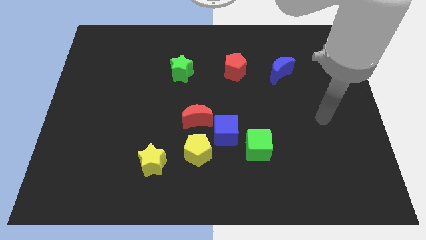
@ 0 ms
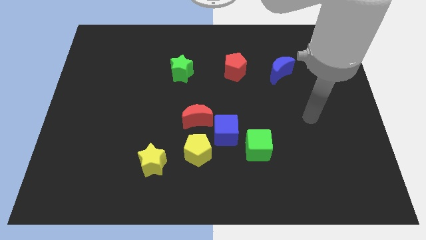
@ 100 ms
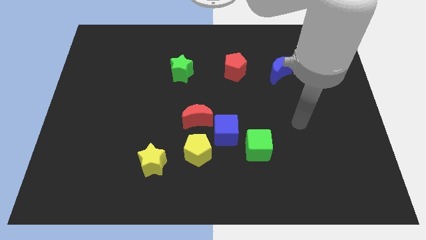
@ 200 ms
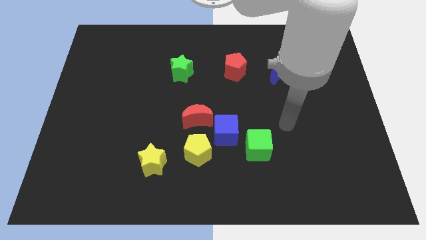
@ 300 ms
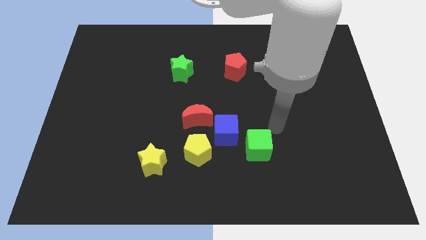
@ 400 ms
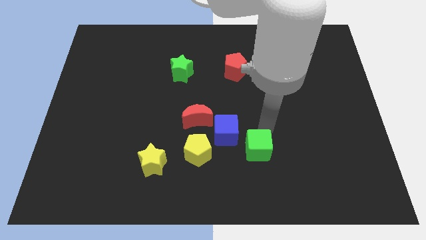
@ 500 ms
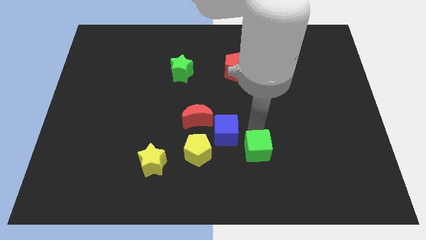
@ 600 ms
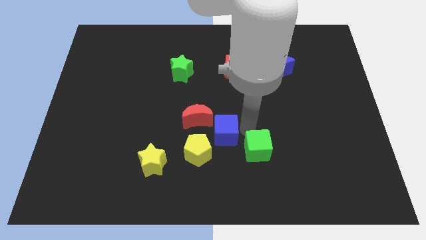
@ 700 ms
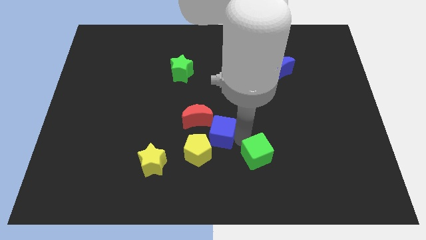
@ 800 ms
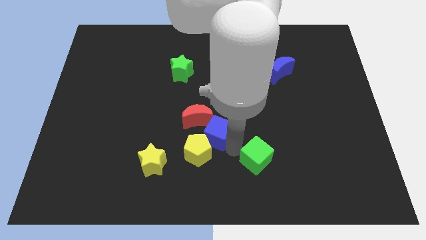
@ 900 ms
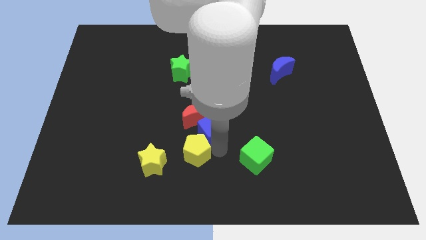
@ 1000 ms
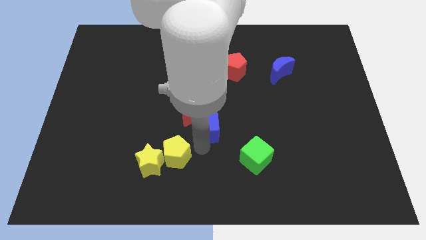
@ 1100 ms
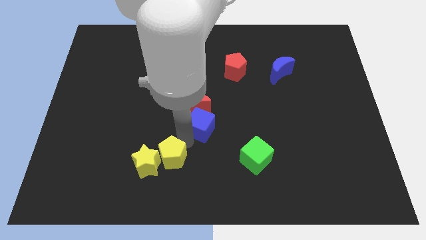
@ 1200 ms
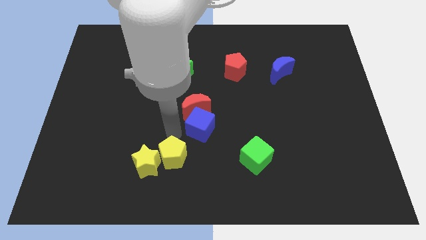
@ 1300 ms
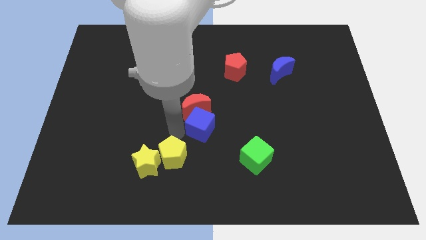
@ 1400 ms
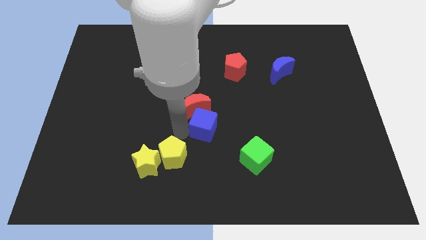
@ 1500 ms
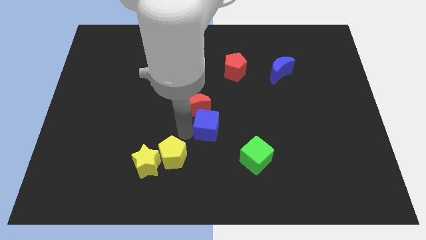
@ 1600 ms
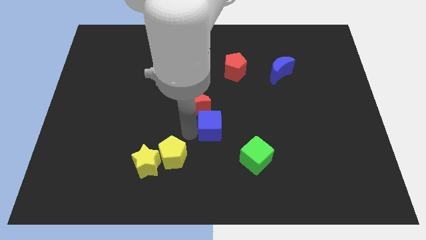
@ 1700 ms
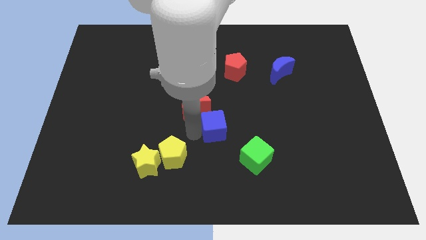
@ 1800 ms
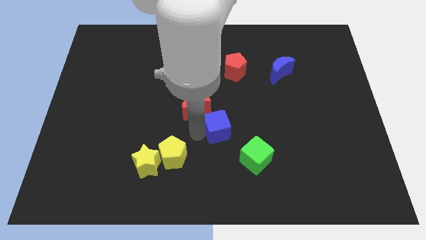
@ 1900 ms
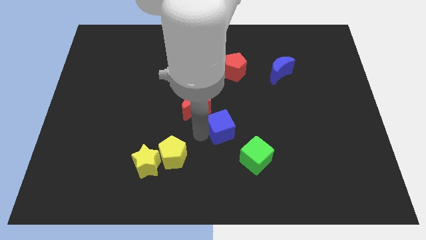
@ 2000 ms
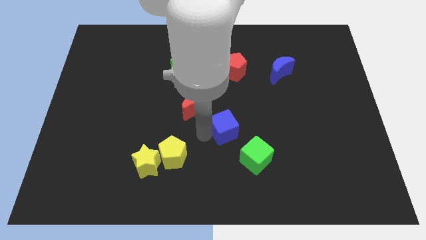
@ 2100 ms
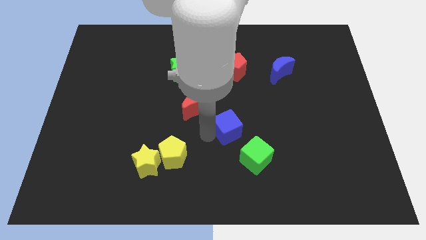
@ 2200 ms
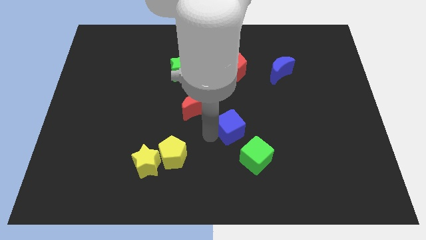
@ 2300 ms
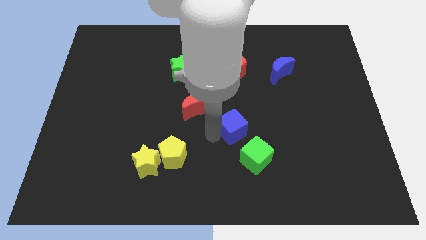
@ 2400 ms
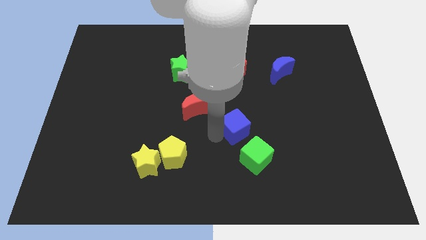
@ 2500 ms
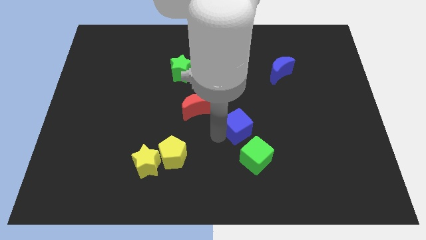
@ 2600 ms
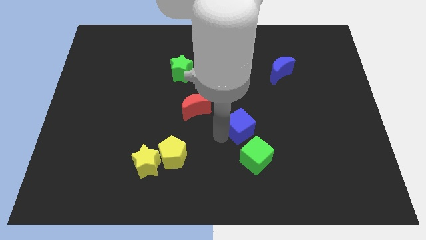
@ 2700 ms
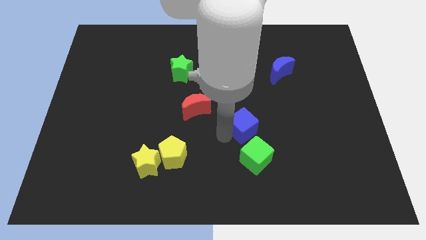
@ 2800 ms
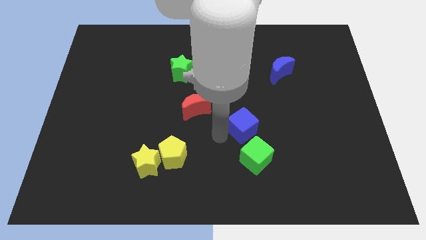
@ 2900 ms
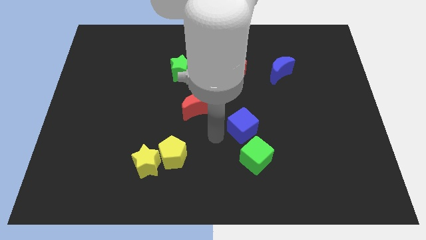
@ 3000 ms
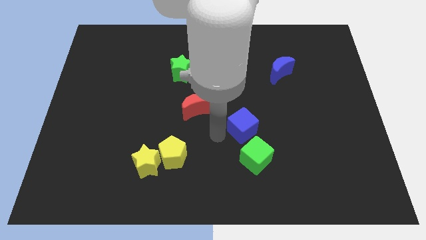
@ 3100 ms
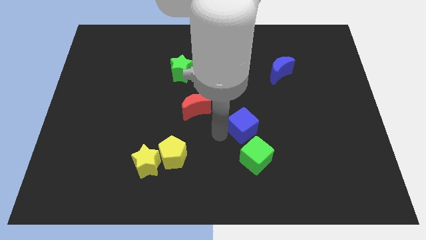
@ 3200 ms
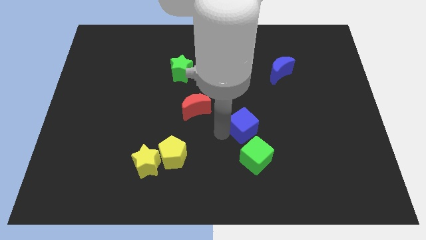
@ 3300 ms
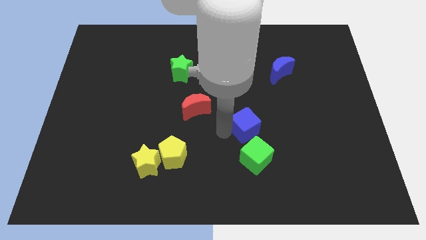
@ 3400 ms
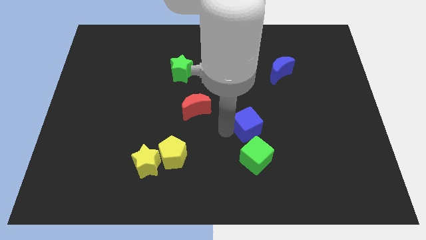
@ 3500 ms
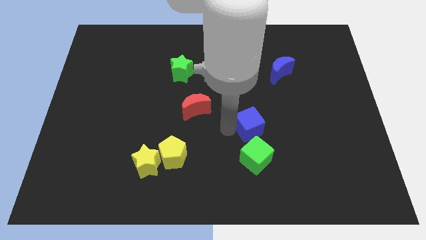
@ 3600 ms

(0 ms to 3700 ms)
pull the blue cube apart from the group

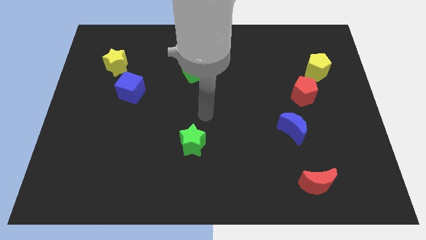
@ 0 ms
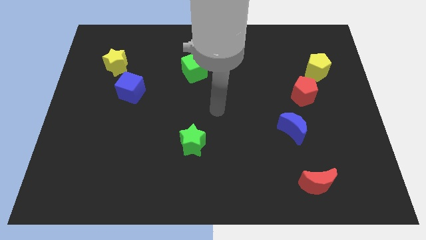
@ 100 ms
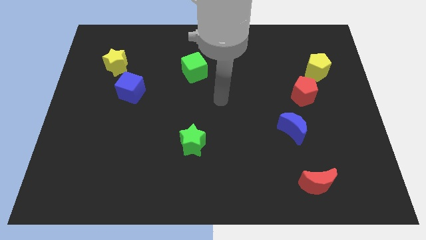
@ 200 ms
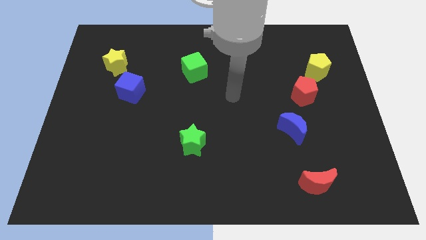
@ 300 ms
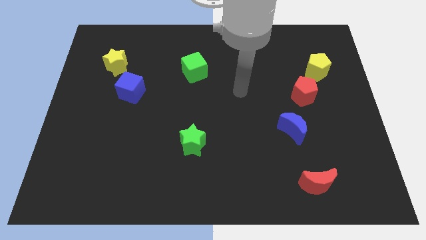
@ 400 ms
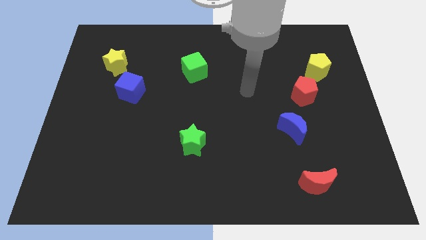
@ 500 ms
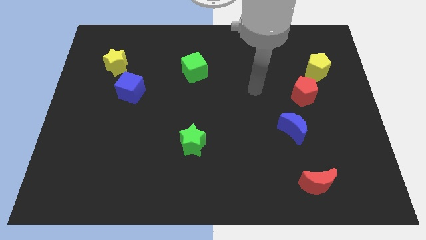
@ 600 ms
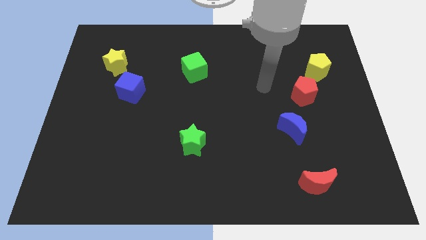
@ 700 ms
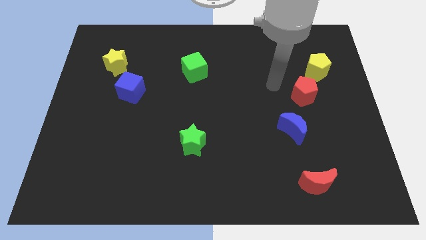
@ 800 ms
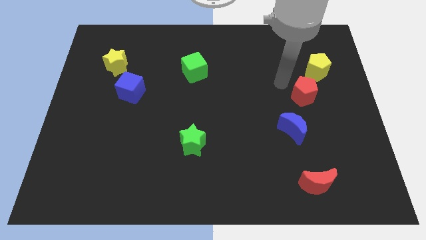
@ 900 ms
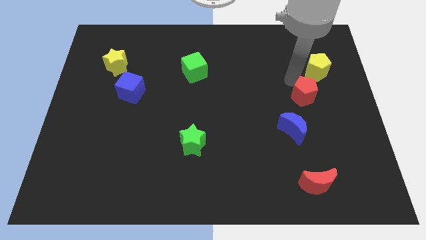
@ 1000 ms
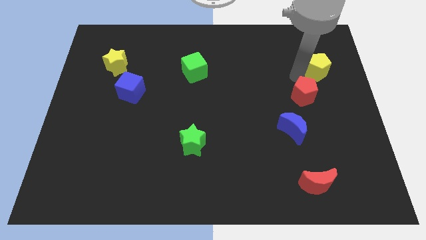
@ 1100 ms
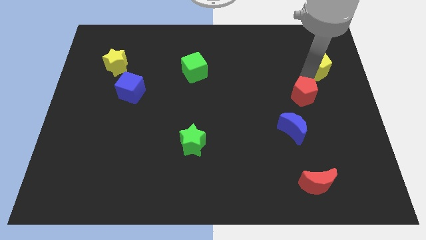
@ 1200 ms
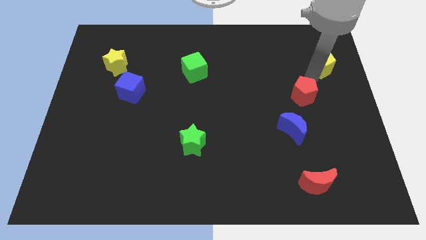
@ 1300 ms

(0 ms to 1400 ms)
separate the red pentagon from the yellow pentagon

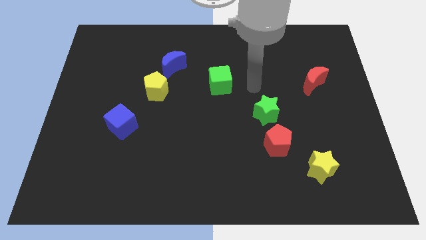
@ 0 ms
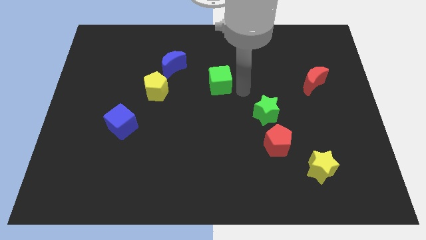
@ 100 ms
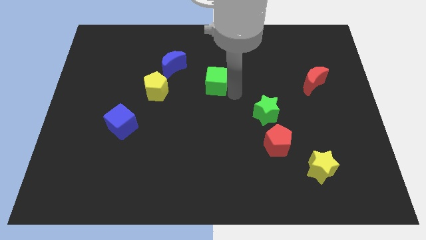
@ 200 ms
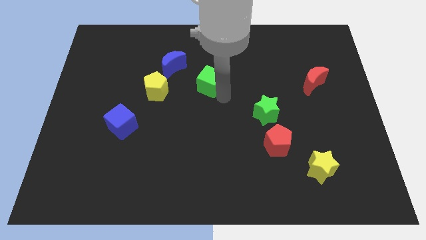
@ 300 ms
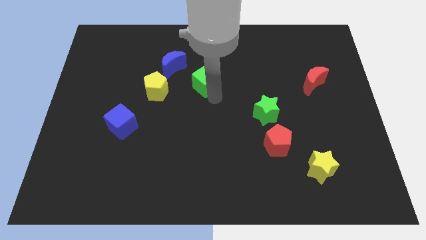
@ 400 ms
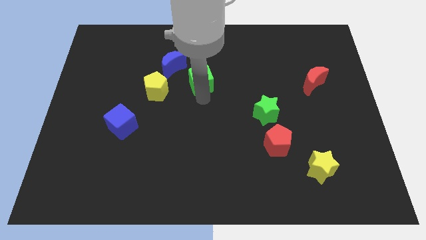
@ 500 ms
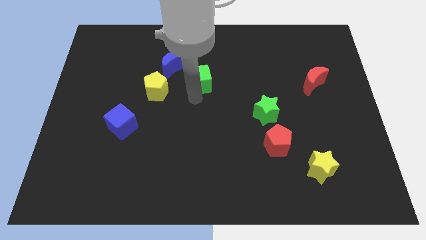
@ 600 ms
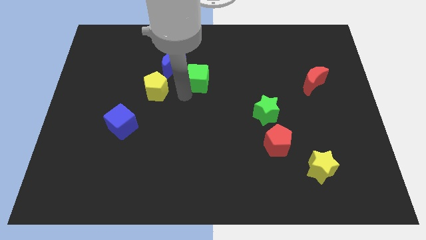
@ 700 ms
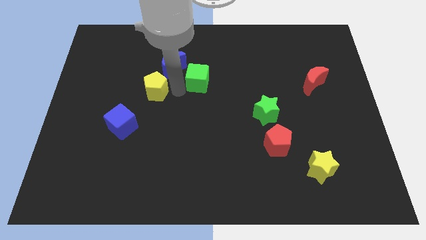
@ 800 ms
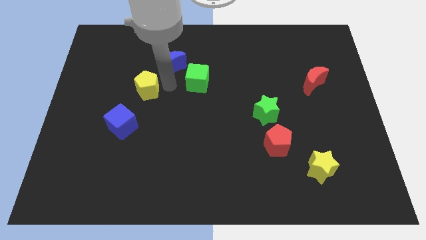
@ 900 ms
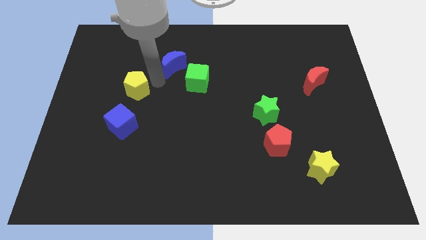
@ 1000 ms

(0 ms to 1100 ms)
move the blue moon away from the yellow pentagon

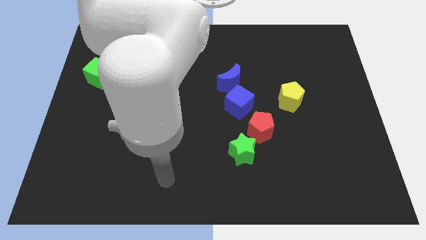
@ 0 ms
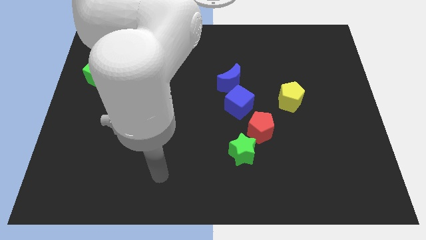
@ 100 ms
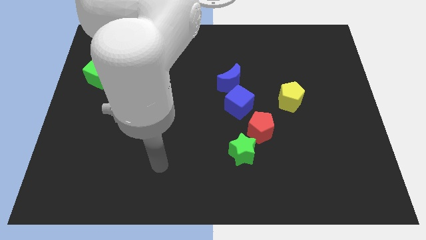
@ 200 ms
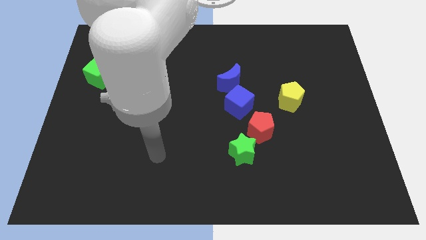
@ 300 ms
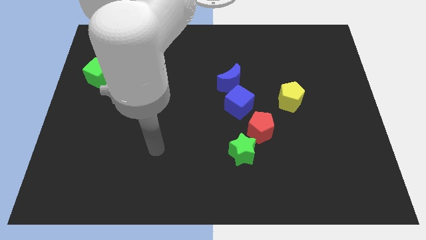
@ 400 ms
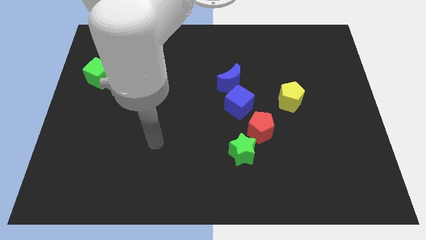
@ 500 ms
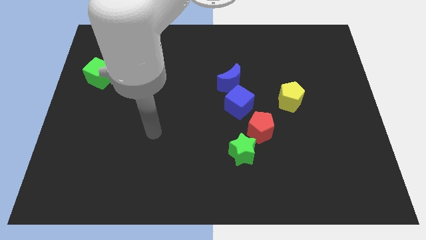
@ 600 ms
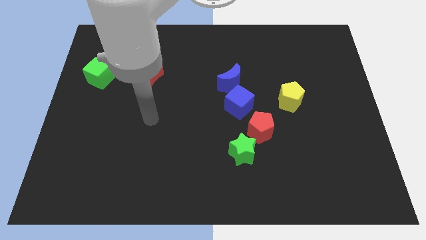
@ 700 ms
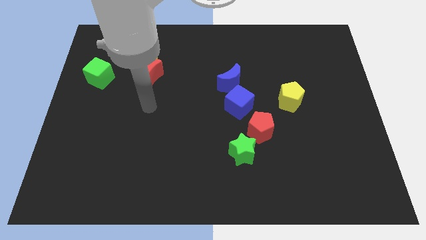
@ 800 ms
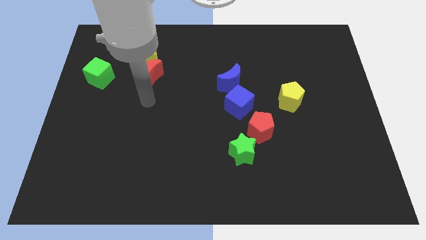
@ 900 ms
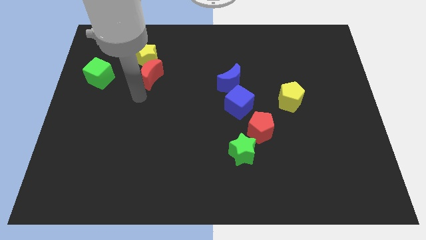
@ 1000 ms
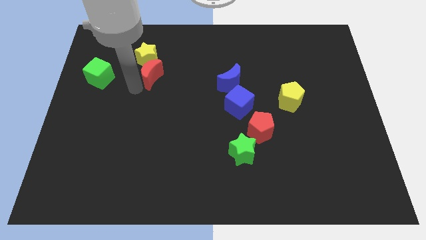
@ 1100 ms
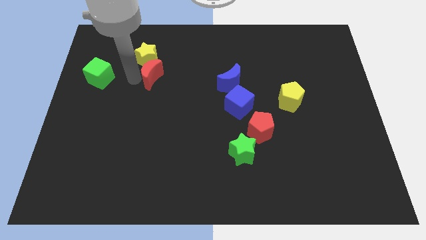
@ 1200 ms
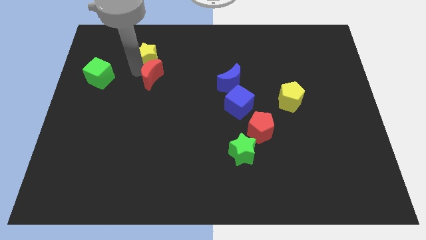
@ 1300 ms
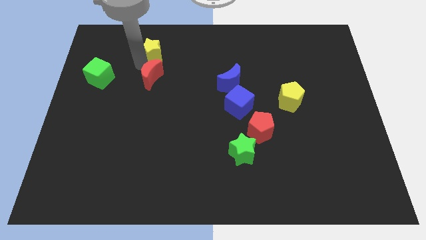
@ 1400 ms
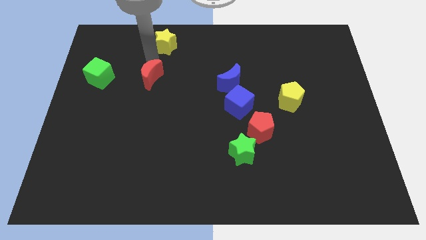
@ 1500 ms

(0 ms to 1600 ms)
pull the red moon apart from the yellow star

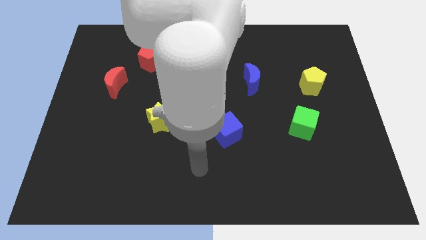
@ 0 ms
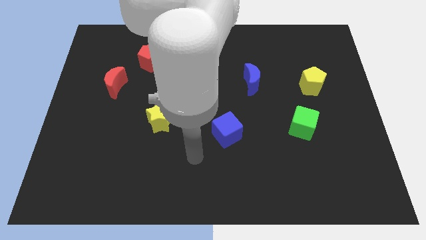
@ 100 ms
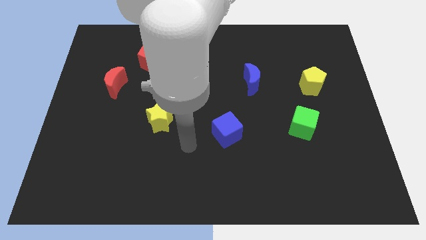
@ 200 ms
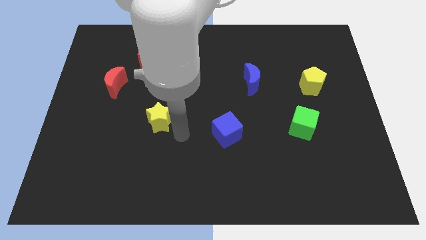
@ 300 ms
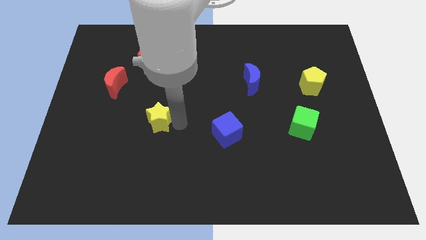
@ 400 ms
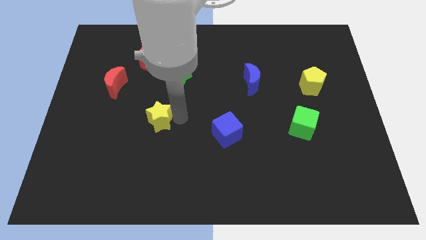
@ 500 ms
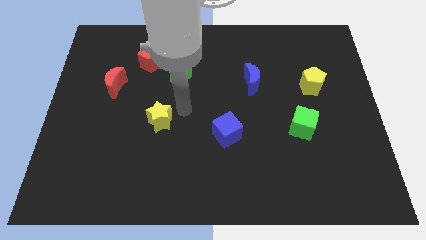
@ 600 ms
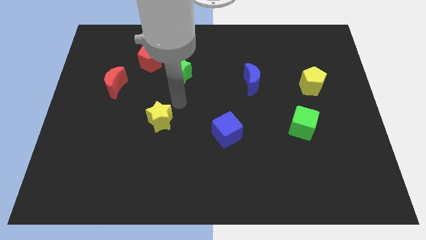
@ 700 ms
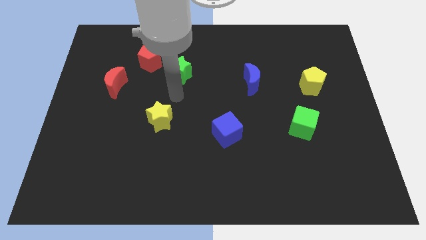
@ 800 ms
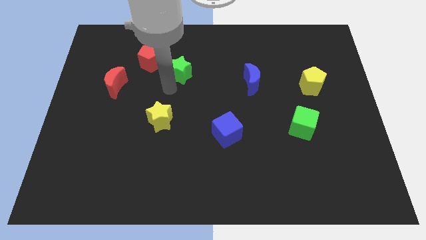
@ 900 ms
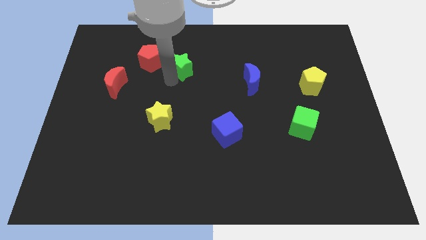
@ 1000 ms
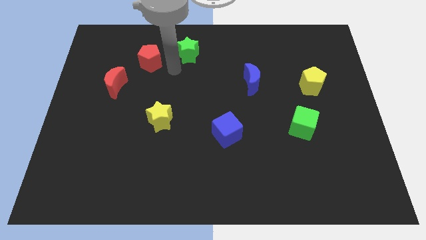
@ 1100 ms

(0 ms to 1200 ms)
pull the red pentagon apart from the green star

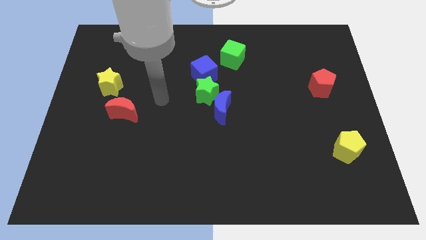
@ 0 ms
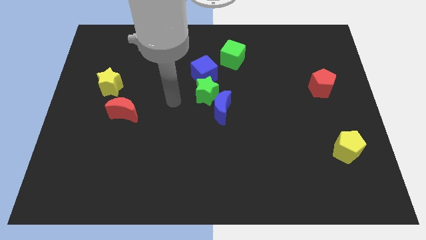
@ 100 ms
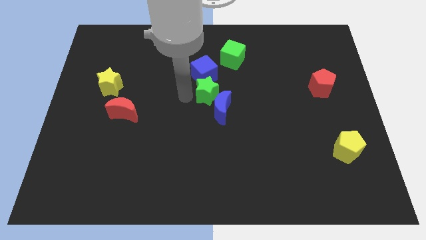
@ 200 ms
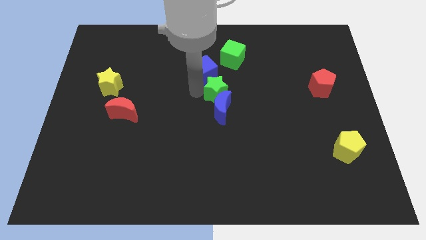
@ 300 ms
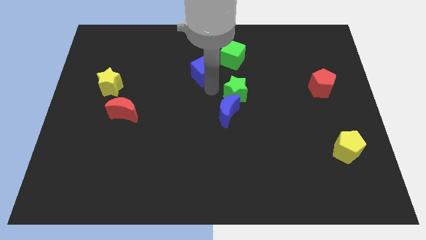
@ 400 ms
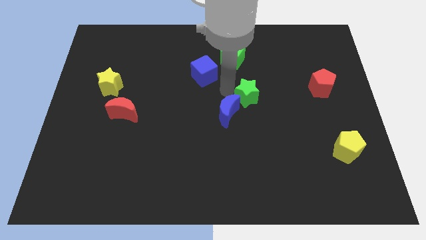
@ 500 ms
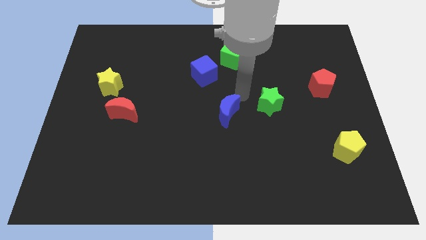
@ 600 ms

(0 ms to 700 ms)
separate the blue moon from the green star
